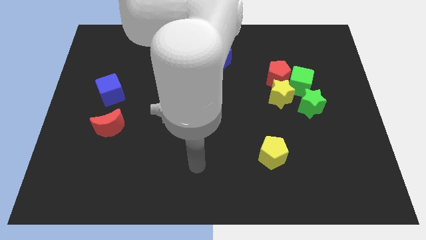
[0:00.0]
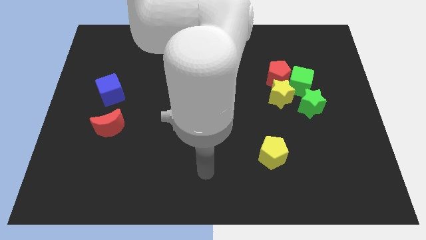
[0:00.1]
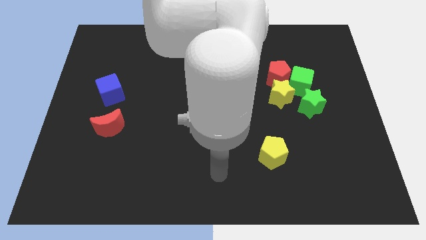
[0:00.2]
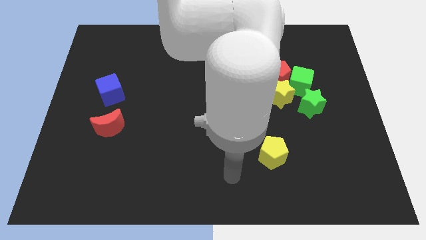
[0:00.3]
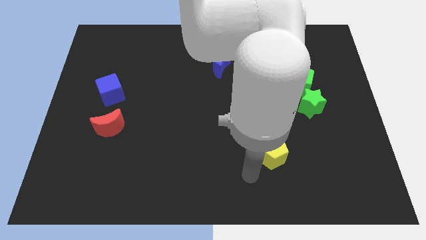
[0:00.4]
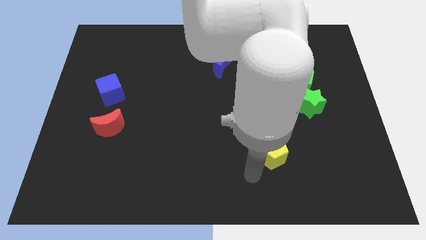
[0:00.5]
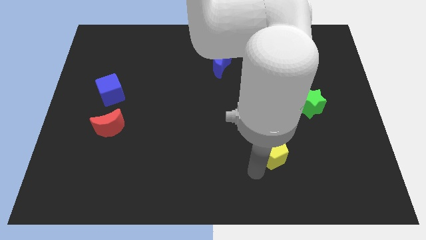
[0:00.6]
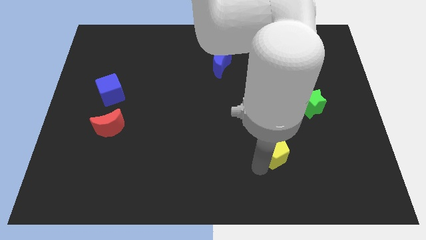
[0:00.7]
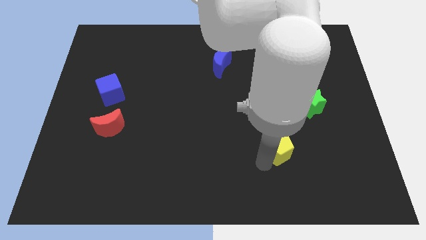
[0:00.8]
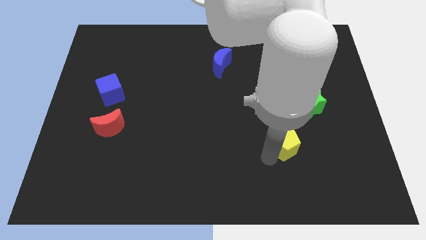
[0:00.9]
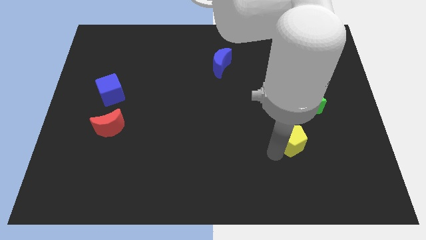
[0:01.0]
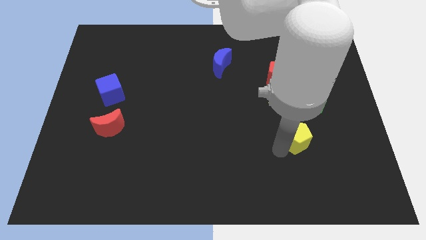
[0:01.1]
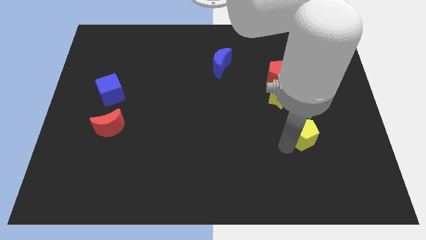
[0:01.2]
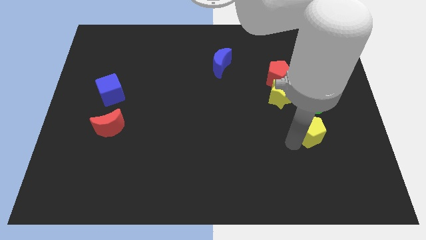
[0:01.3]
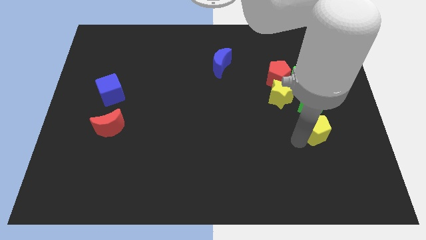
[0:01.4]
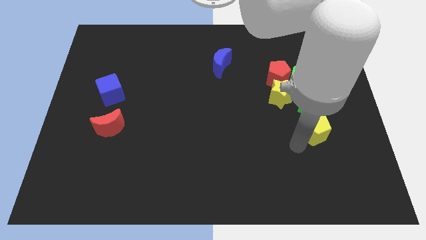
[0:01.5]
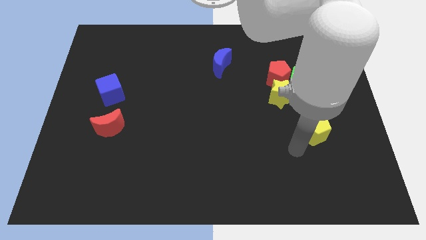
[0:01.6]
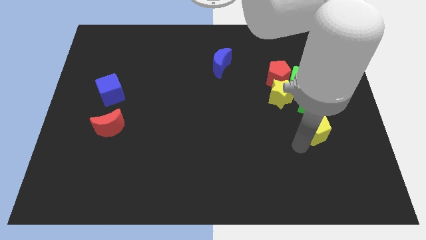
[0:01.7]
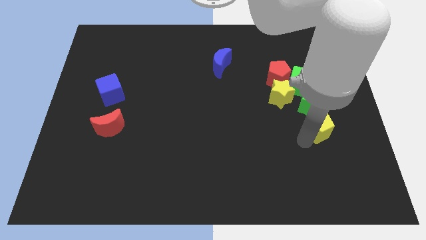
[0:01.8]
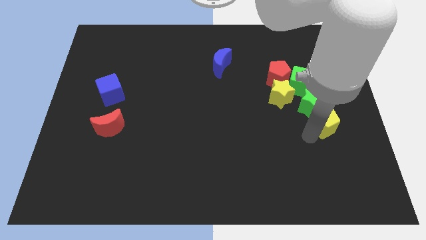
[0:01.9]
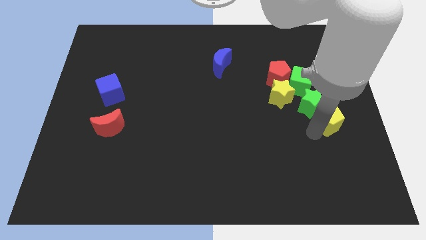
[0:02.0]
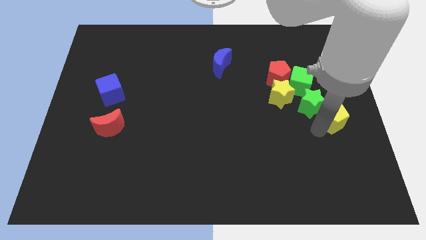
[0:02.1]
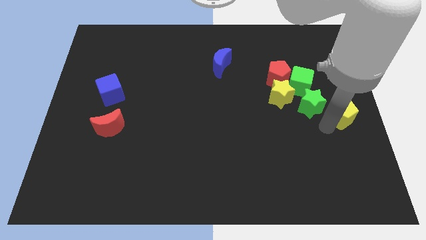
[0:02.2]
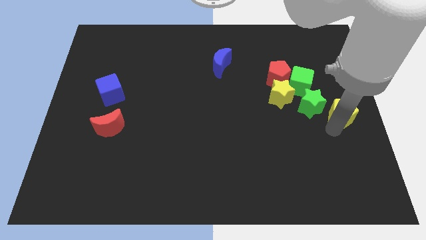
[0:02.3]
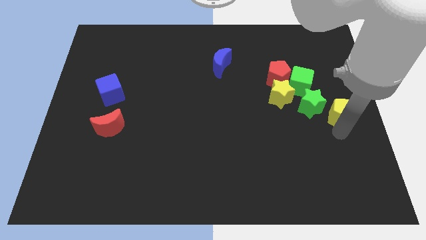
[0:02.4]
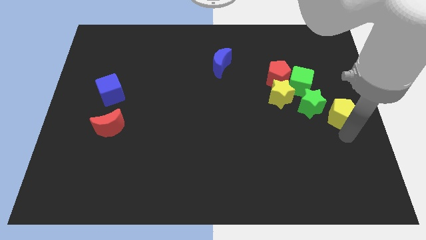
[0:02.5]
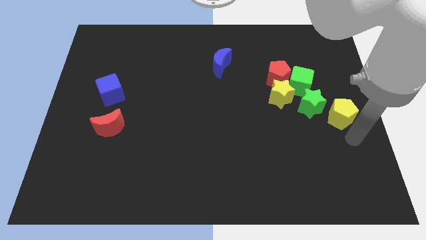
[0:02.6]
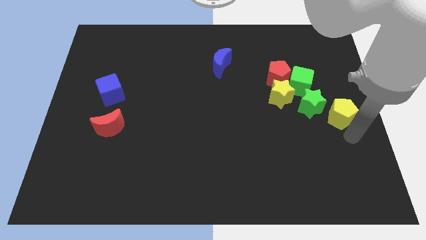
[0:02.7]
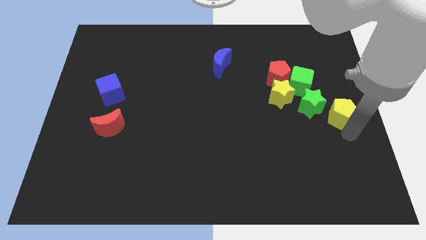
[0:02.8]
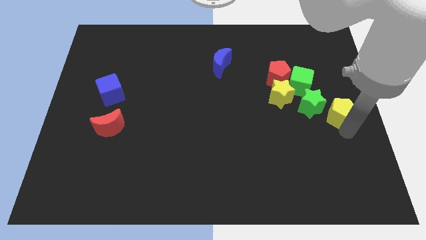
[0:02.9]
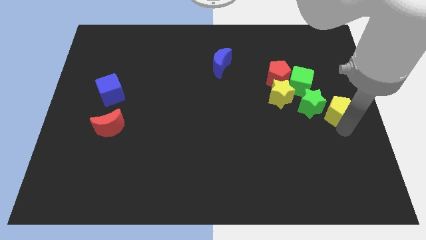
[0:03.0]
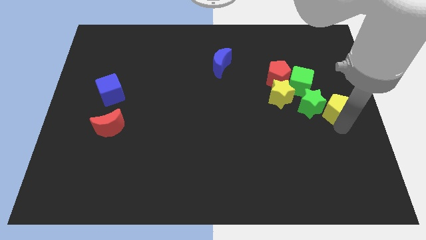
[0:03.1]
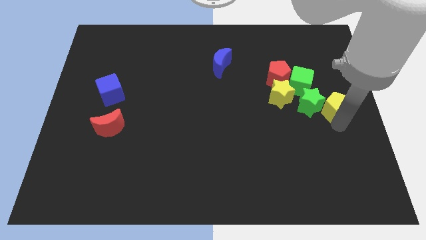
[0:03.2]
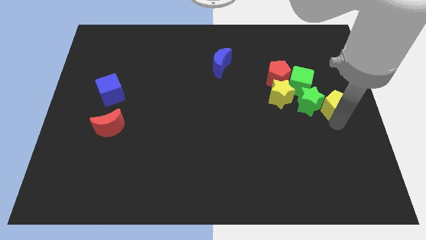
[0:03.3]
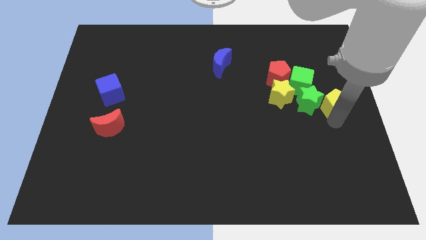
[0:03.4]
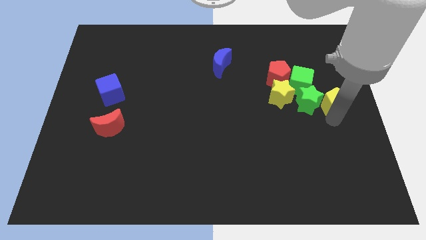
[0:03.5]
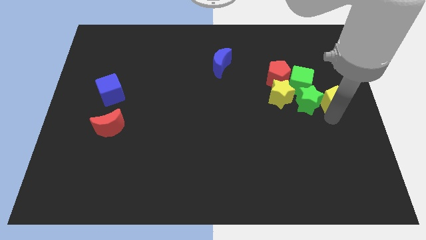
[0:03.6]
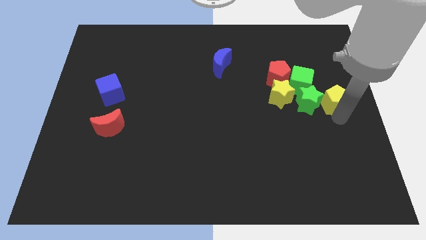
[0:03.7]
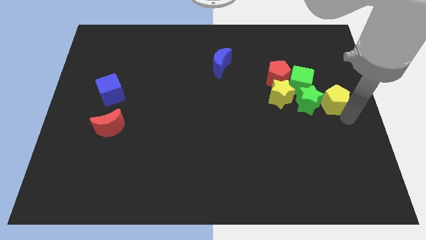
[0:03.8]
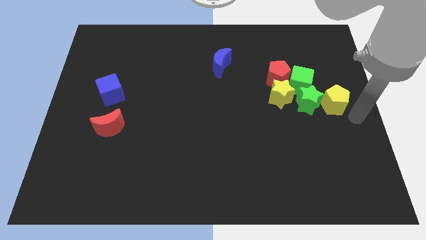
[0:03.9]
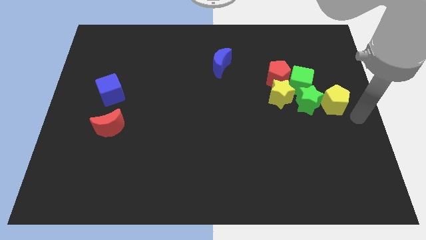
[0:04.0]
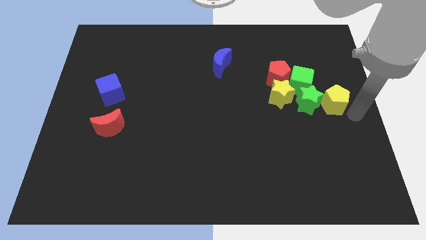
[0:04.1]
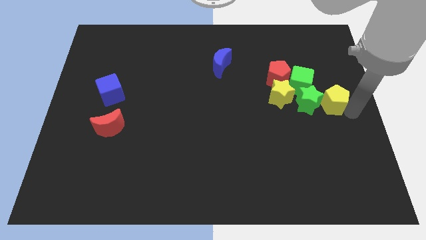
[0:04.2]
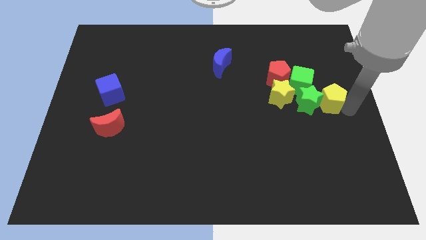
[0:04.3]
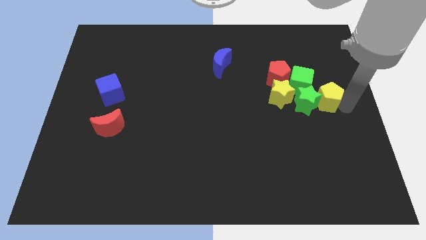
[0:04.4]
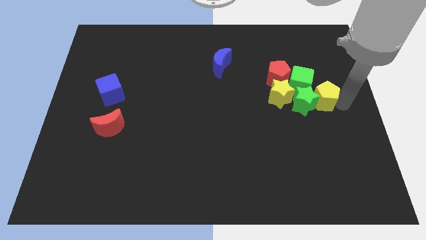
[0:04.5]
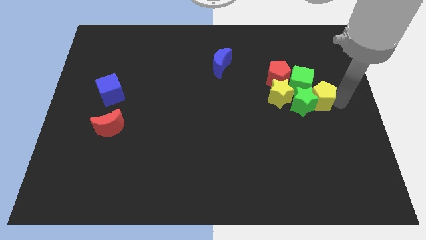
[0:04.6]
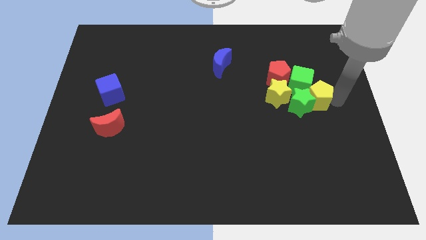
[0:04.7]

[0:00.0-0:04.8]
put the yellow pentagon to the green cube

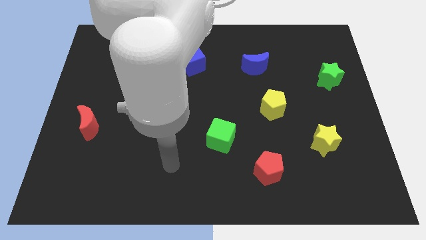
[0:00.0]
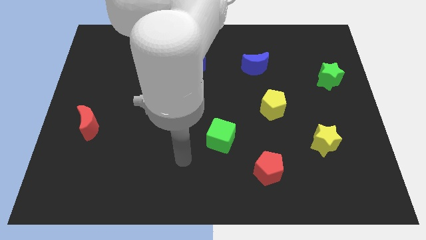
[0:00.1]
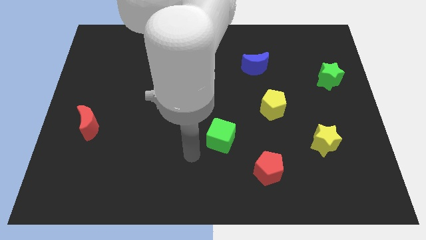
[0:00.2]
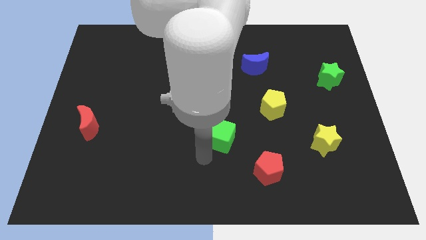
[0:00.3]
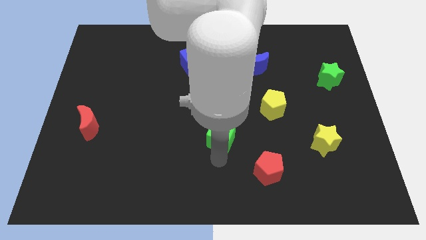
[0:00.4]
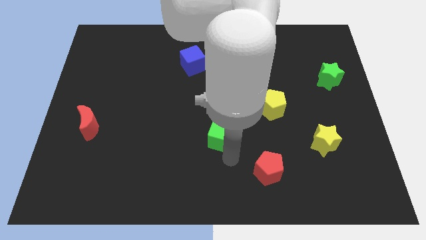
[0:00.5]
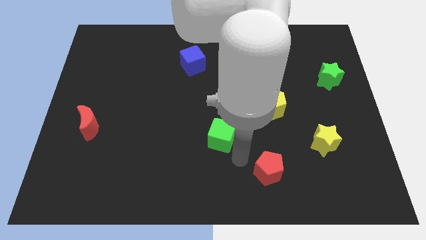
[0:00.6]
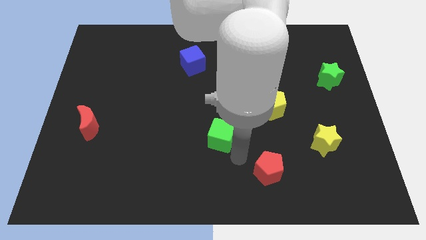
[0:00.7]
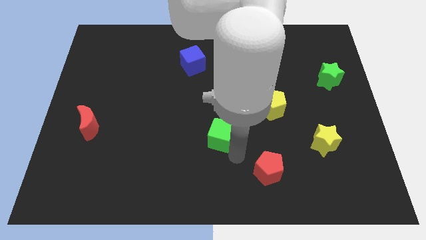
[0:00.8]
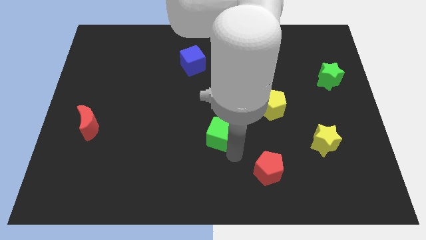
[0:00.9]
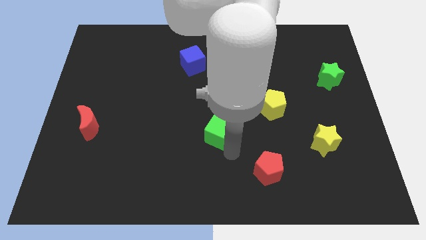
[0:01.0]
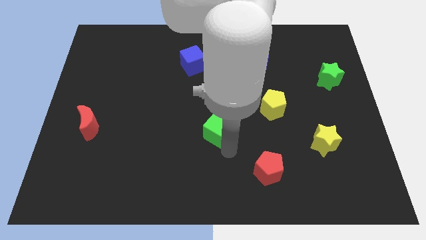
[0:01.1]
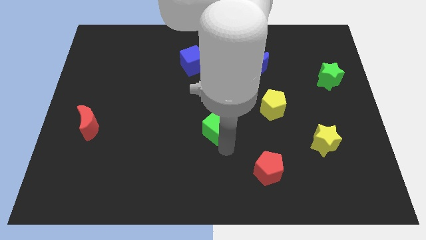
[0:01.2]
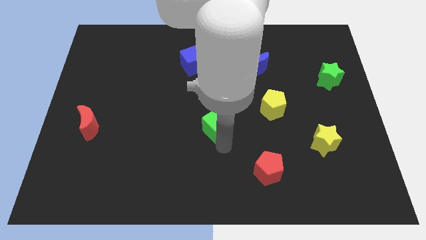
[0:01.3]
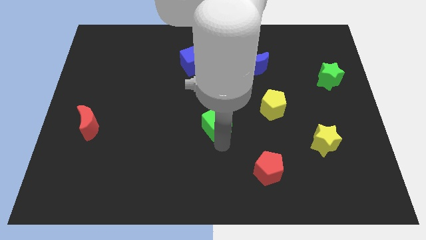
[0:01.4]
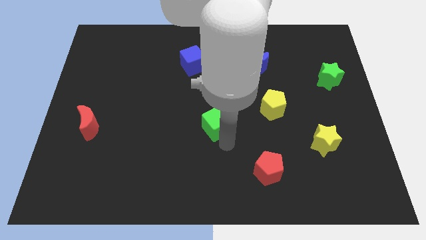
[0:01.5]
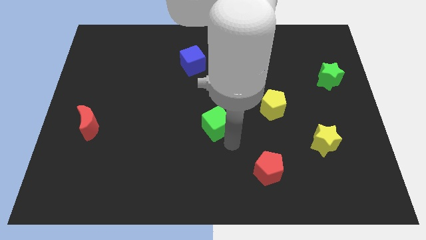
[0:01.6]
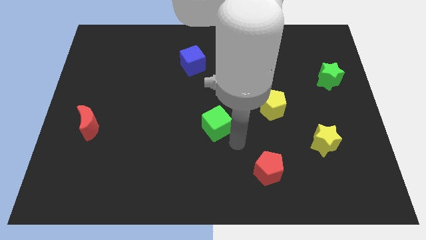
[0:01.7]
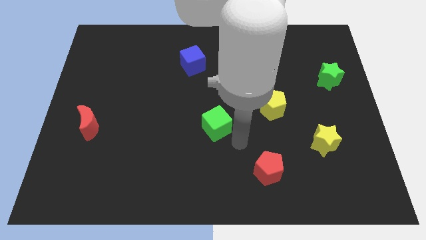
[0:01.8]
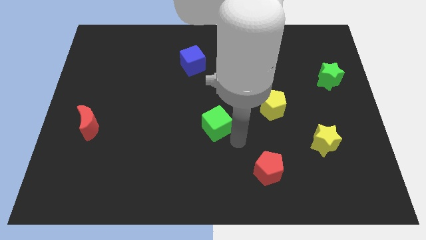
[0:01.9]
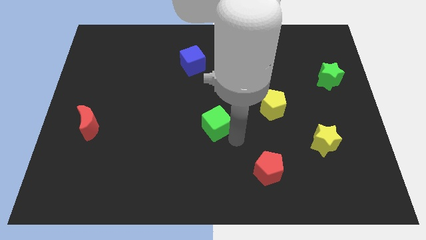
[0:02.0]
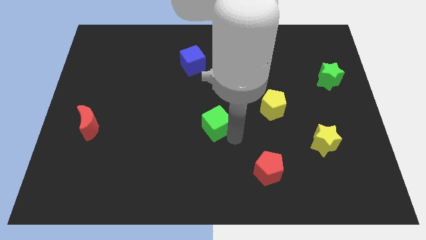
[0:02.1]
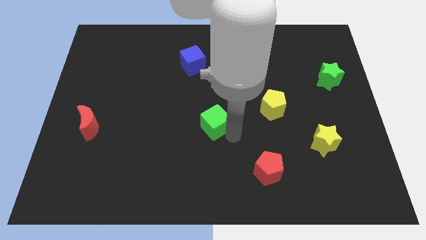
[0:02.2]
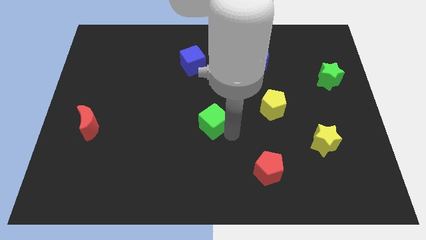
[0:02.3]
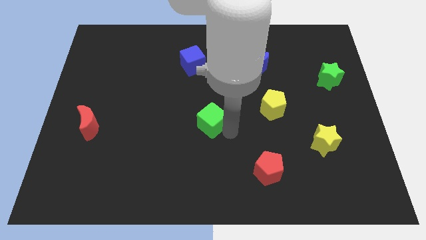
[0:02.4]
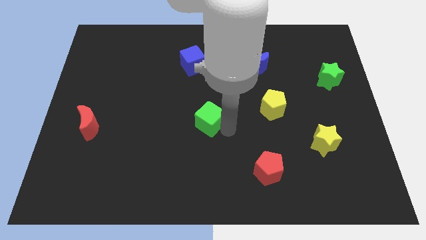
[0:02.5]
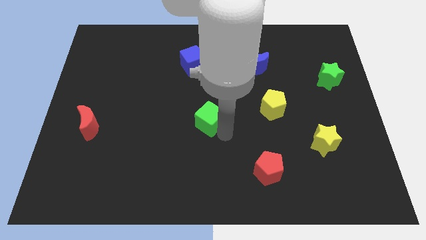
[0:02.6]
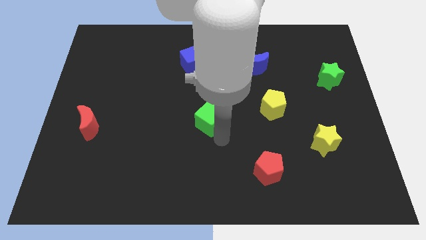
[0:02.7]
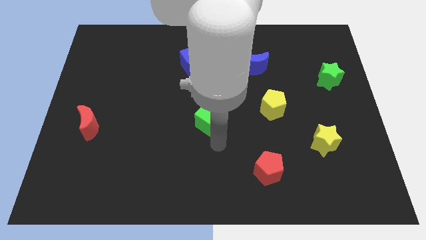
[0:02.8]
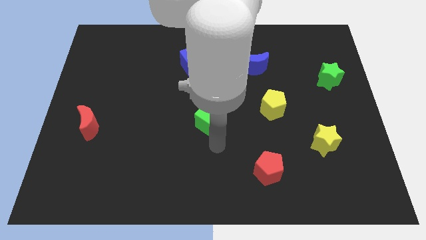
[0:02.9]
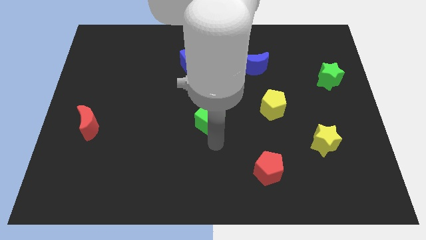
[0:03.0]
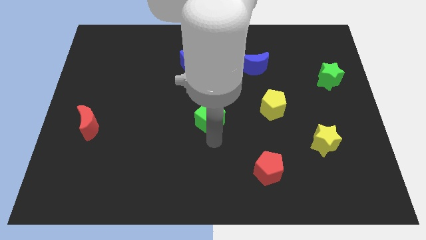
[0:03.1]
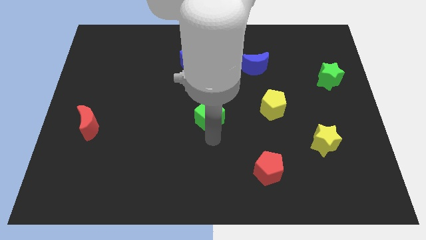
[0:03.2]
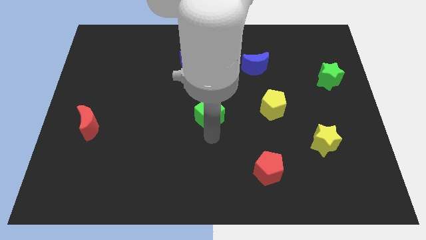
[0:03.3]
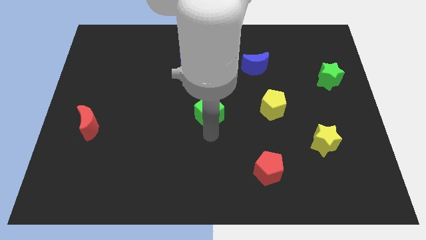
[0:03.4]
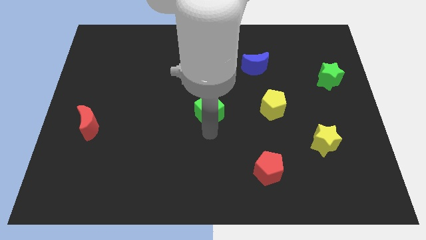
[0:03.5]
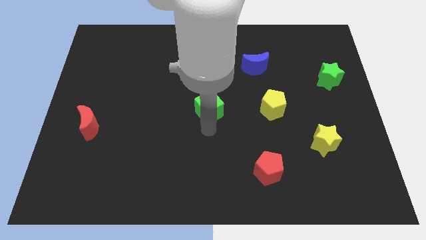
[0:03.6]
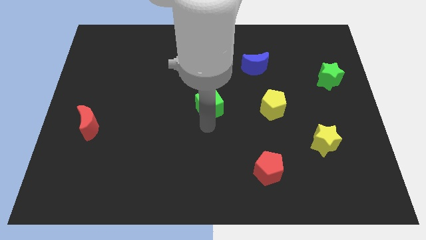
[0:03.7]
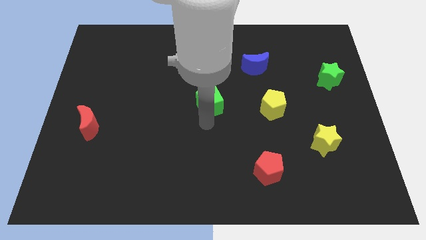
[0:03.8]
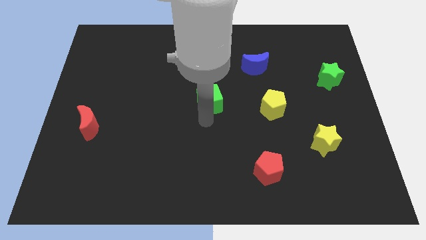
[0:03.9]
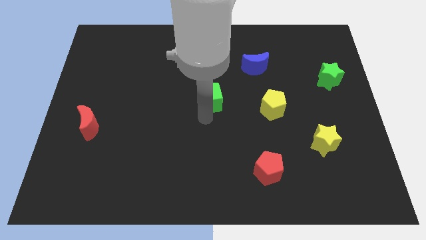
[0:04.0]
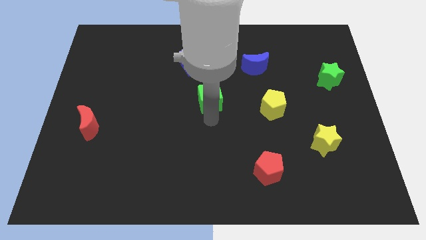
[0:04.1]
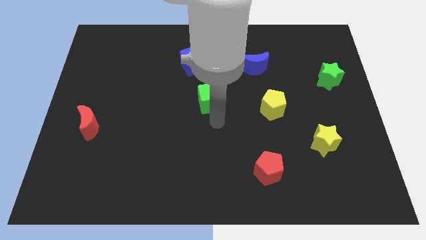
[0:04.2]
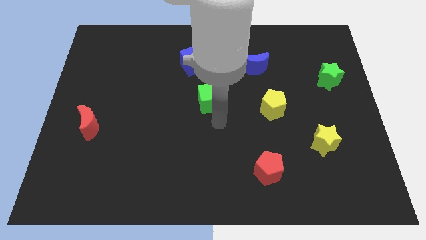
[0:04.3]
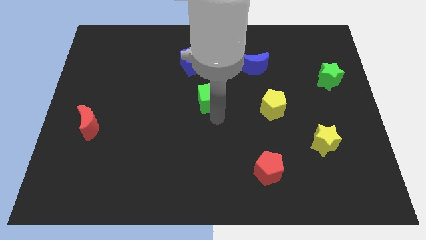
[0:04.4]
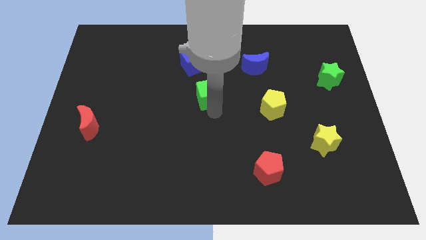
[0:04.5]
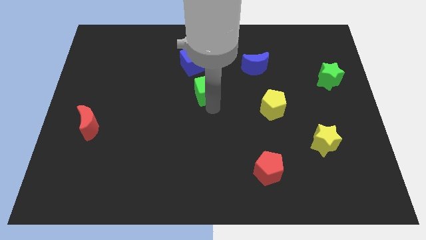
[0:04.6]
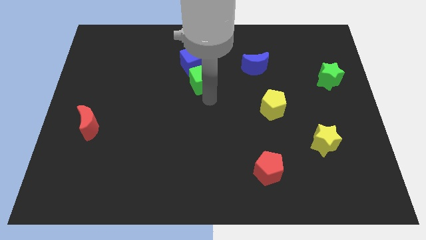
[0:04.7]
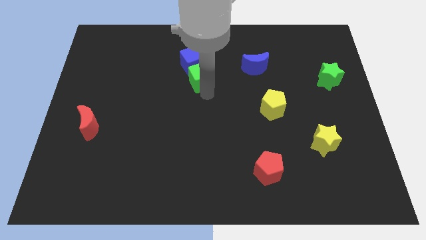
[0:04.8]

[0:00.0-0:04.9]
push the green cube next to the blue cube
